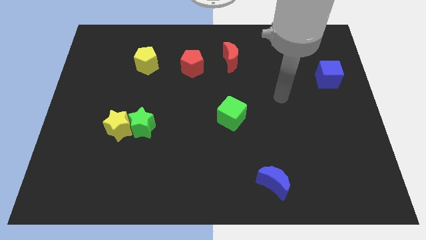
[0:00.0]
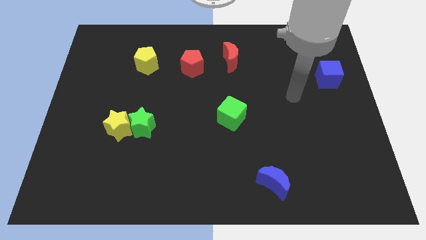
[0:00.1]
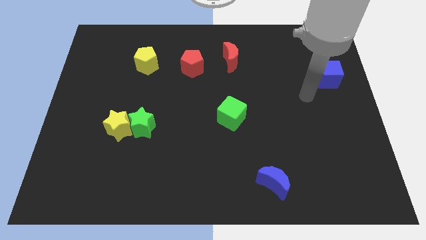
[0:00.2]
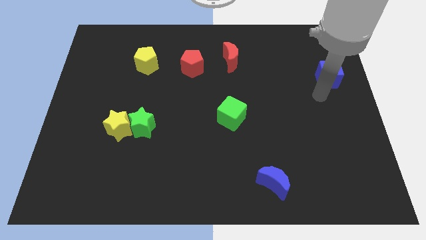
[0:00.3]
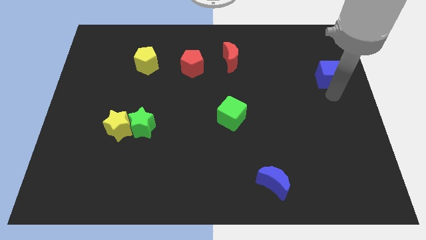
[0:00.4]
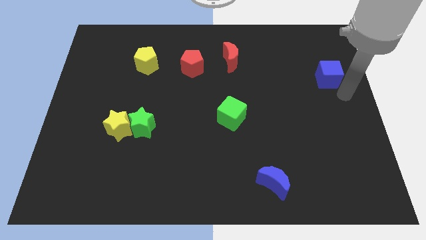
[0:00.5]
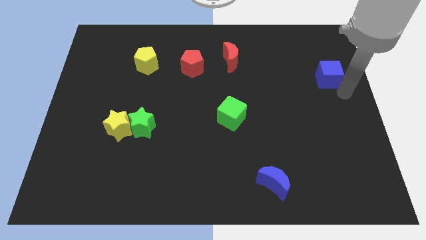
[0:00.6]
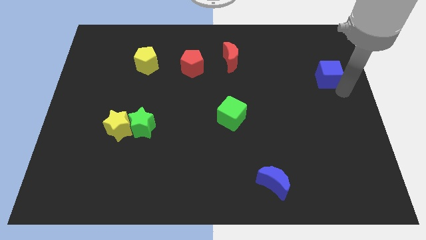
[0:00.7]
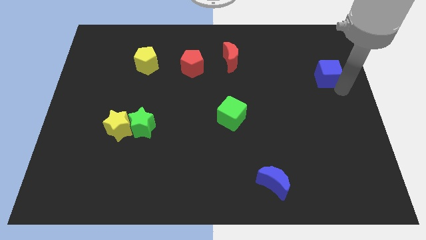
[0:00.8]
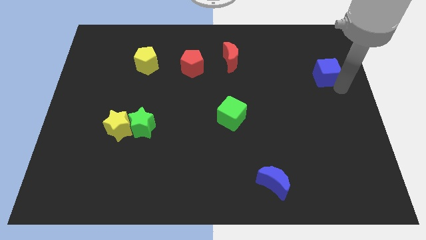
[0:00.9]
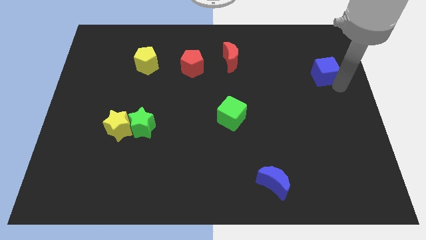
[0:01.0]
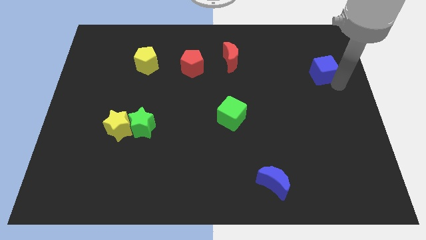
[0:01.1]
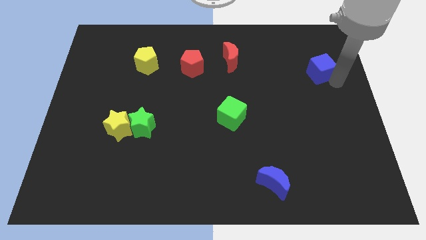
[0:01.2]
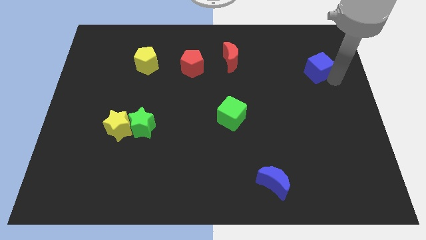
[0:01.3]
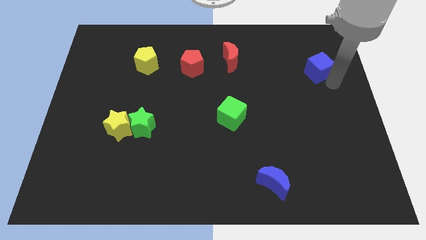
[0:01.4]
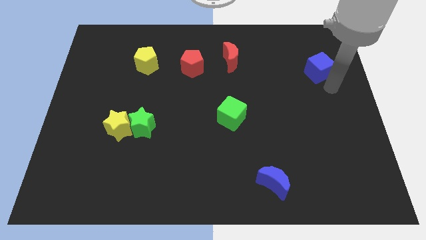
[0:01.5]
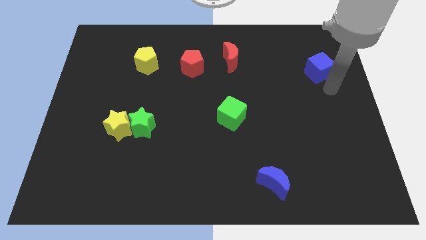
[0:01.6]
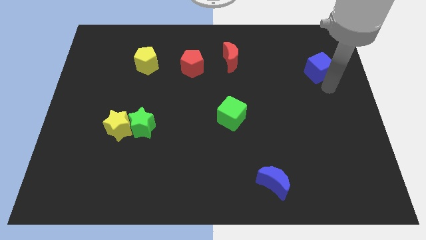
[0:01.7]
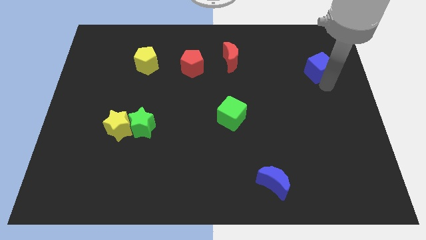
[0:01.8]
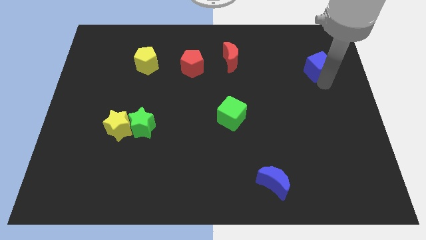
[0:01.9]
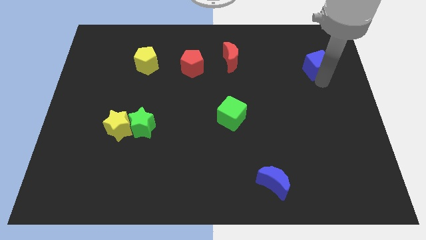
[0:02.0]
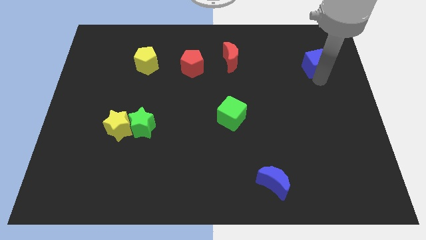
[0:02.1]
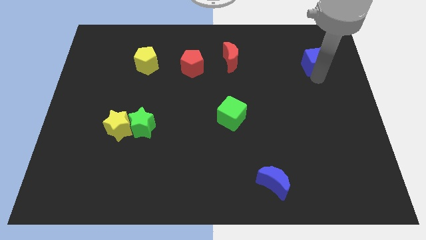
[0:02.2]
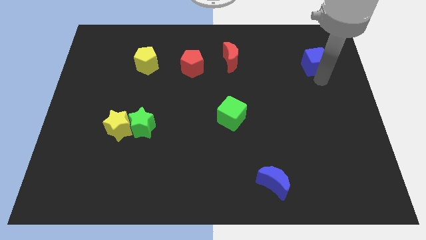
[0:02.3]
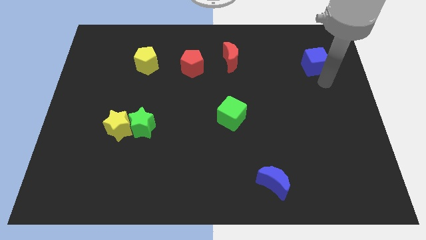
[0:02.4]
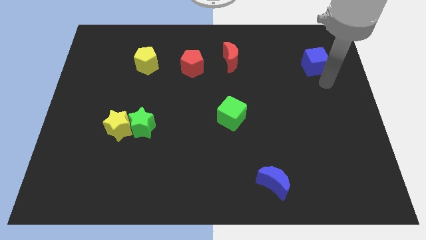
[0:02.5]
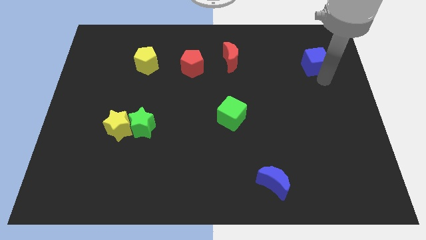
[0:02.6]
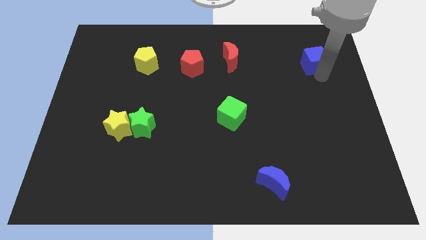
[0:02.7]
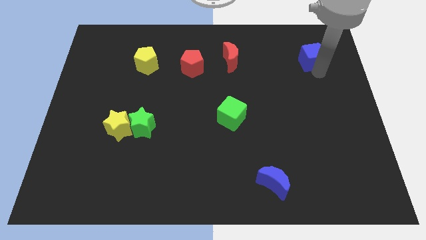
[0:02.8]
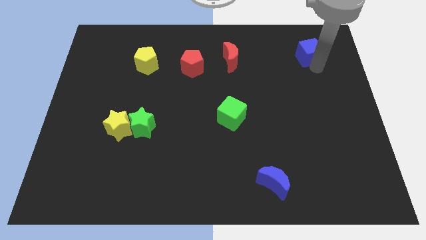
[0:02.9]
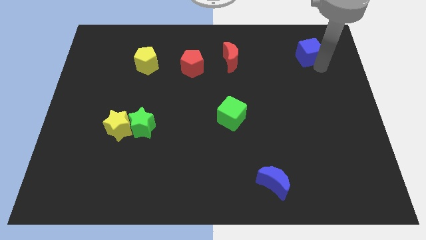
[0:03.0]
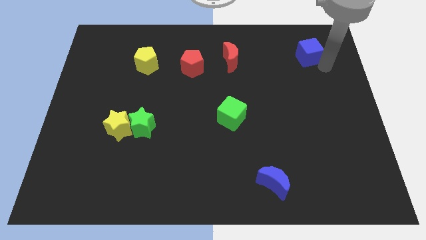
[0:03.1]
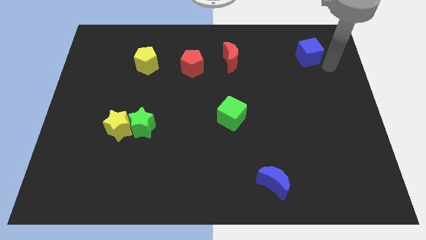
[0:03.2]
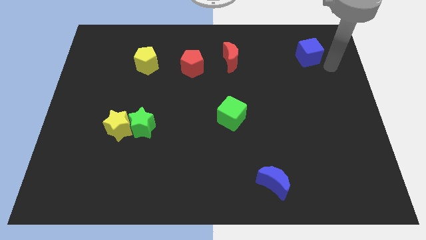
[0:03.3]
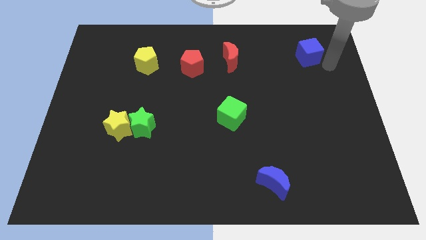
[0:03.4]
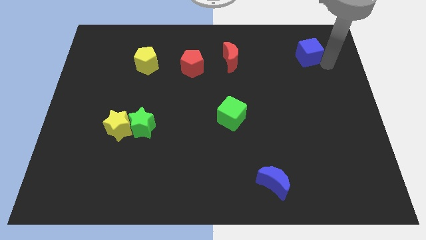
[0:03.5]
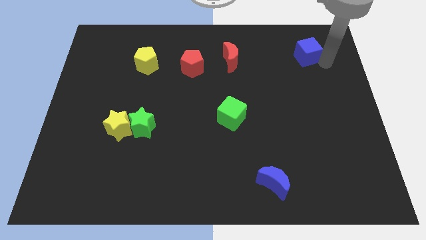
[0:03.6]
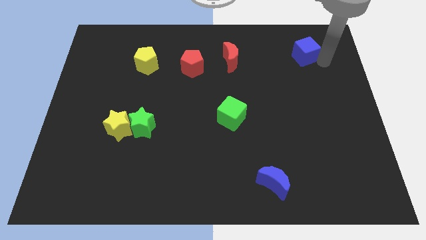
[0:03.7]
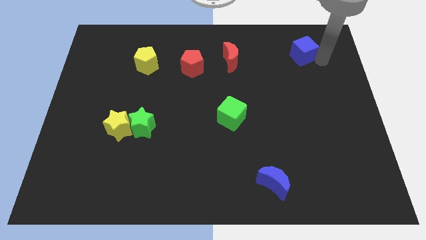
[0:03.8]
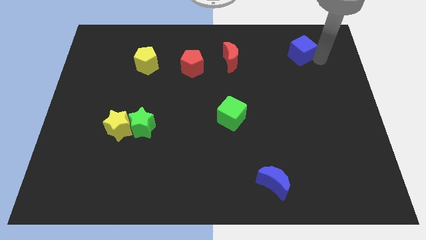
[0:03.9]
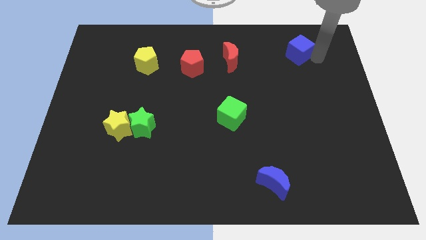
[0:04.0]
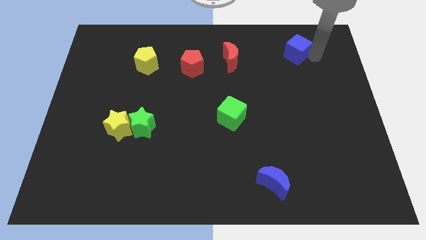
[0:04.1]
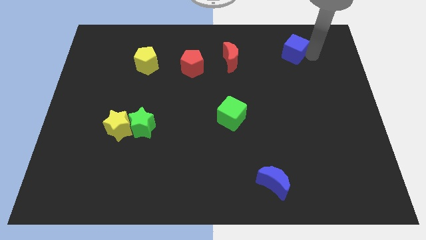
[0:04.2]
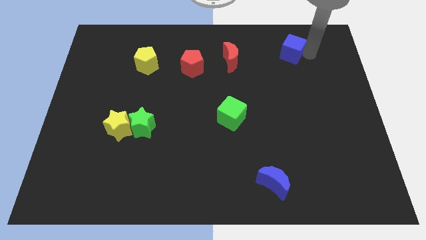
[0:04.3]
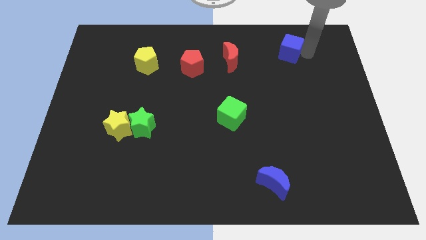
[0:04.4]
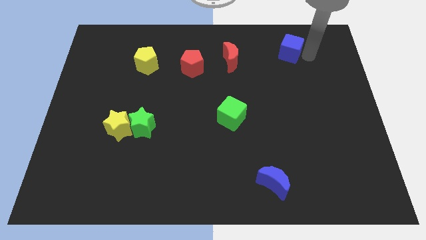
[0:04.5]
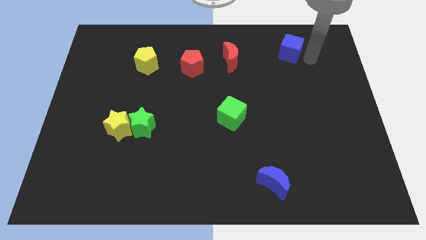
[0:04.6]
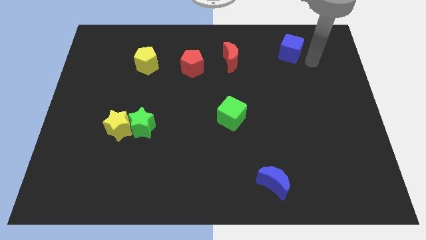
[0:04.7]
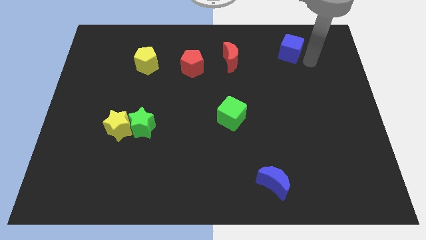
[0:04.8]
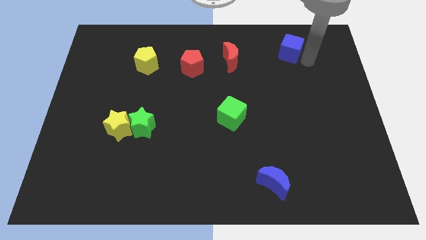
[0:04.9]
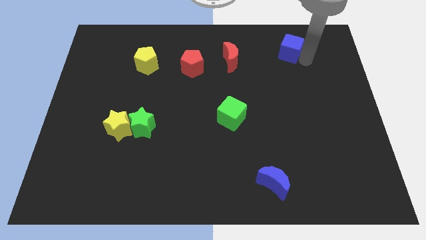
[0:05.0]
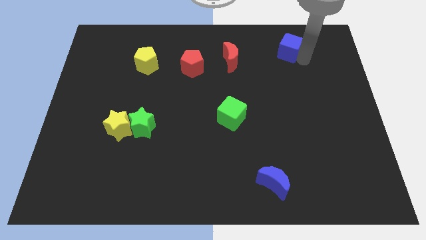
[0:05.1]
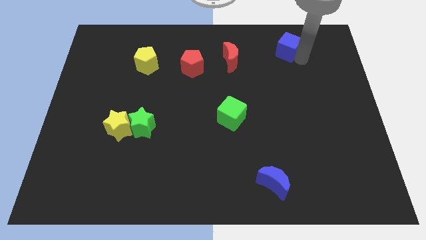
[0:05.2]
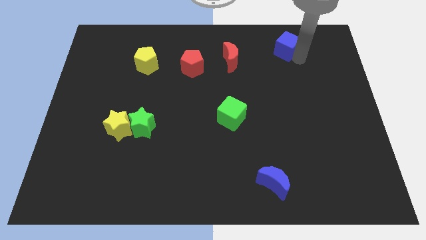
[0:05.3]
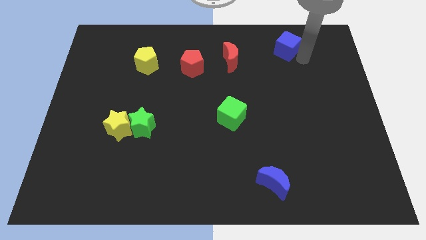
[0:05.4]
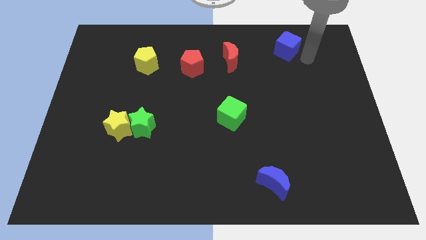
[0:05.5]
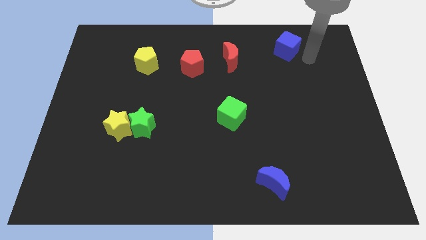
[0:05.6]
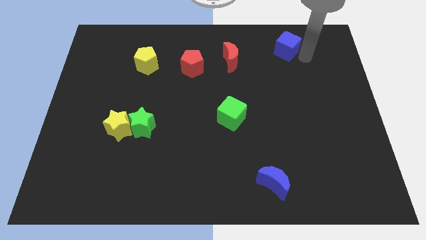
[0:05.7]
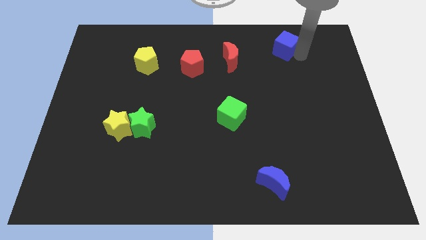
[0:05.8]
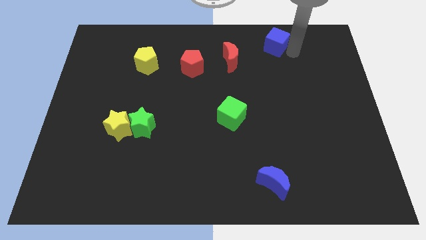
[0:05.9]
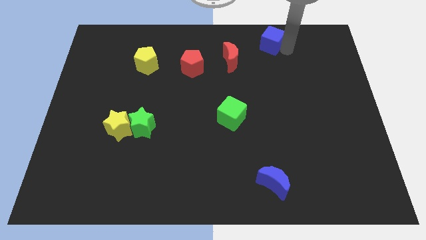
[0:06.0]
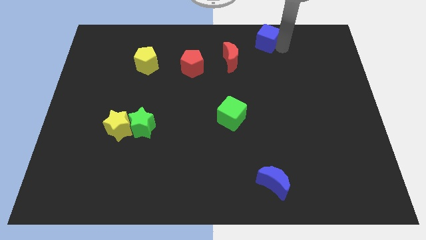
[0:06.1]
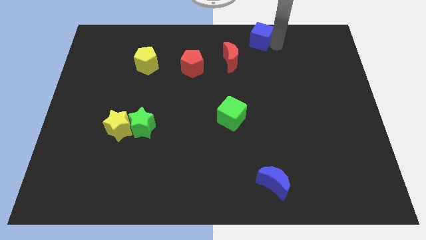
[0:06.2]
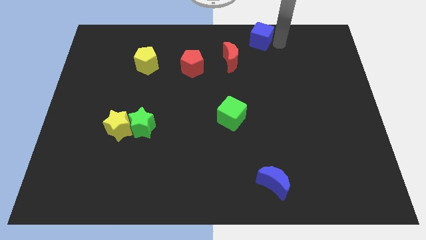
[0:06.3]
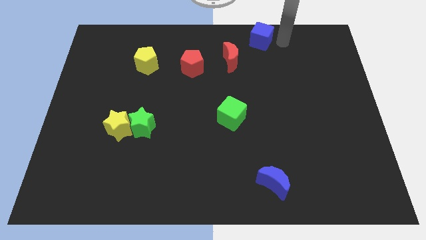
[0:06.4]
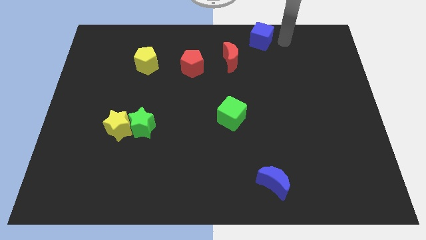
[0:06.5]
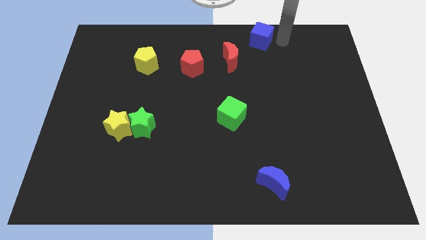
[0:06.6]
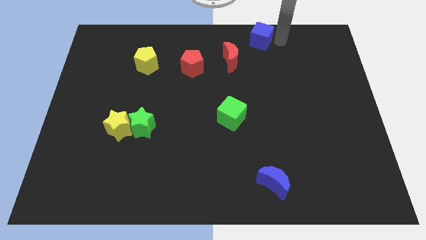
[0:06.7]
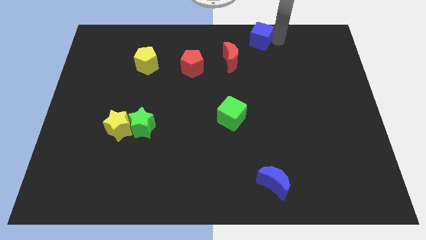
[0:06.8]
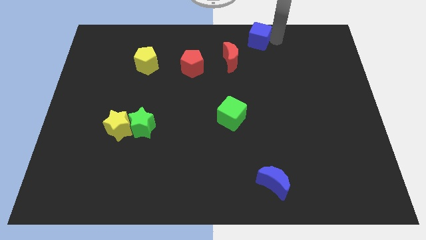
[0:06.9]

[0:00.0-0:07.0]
push the blue cube to the top side

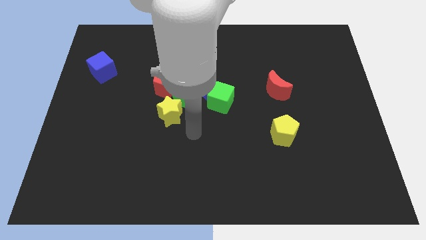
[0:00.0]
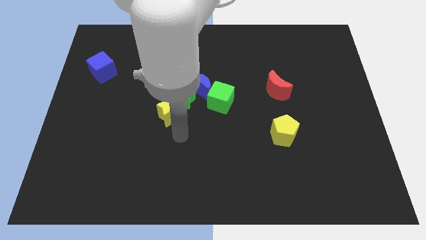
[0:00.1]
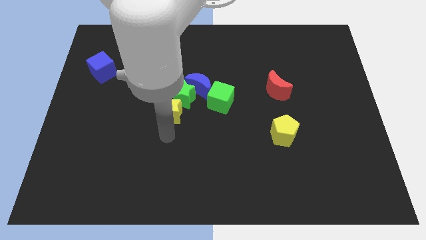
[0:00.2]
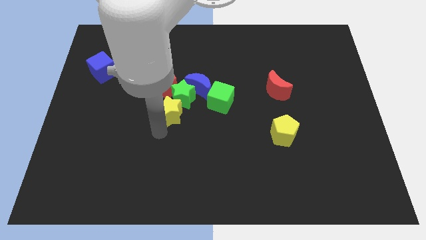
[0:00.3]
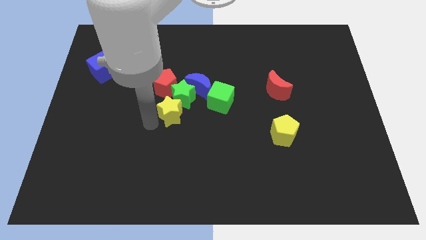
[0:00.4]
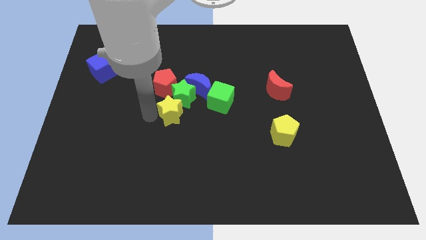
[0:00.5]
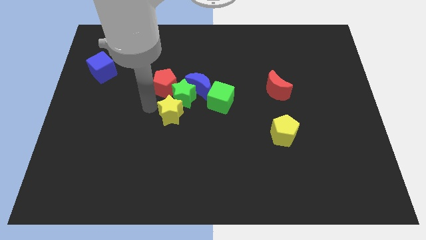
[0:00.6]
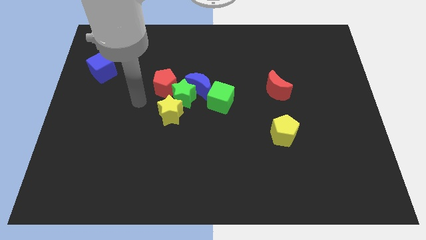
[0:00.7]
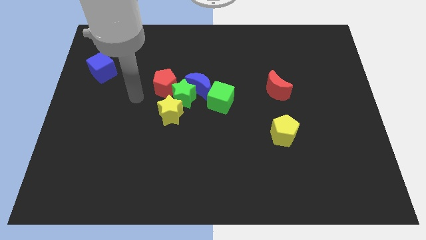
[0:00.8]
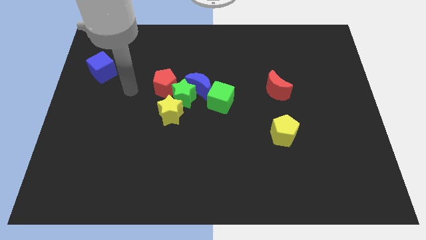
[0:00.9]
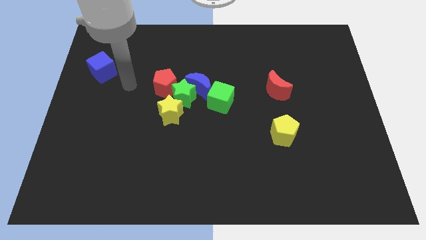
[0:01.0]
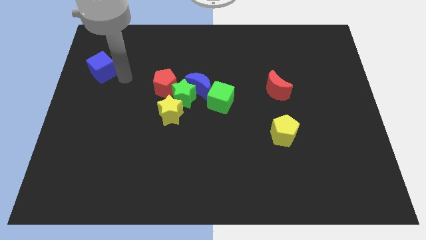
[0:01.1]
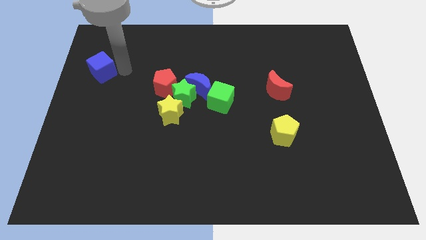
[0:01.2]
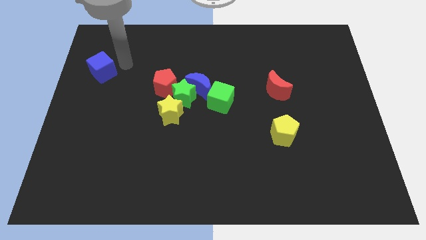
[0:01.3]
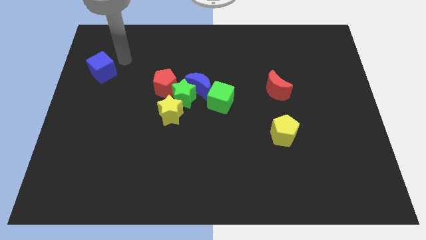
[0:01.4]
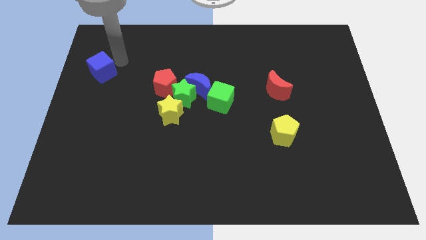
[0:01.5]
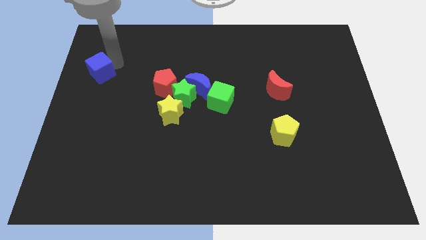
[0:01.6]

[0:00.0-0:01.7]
push the blue cube to the left side
